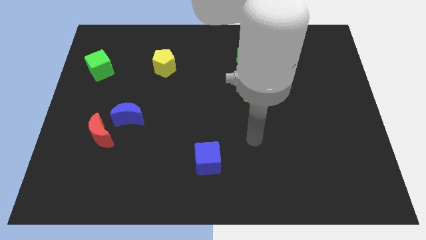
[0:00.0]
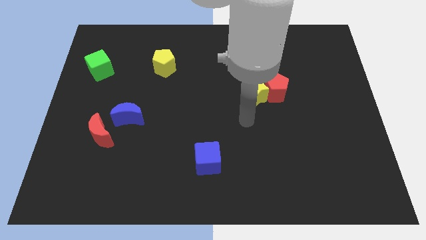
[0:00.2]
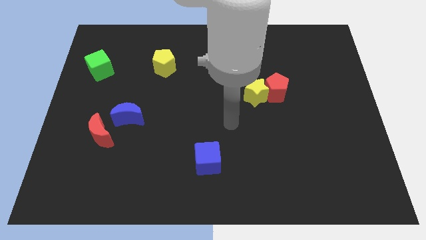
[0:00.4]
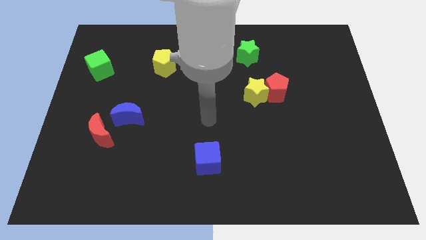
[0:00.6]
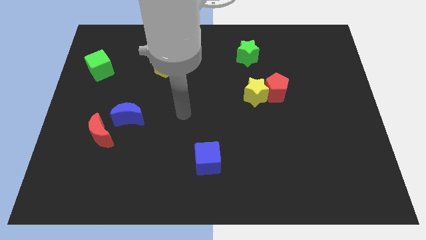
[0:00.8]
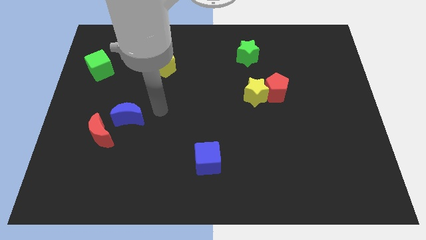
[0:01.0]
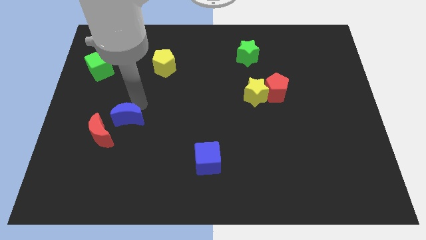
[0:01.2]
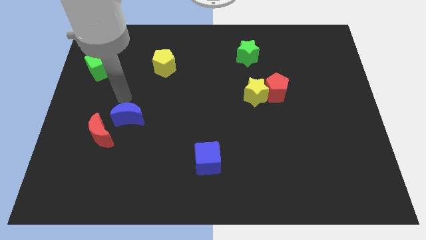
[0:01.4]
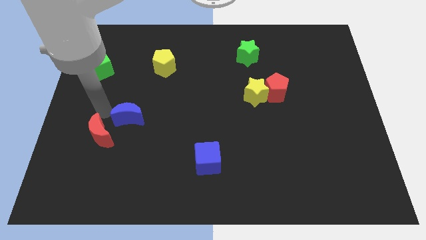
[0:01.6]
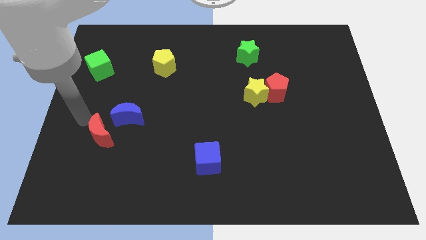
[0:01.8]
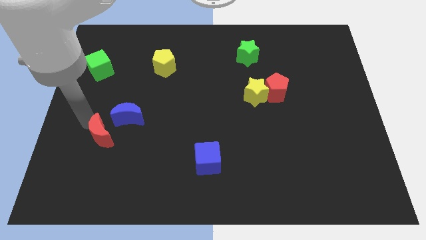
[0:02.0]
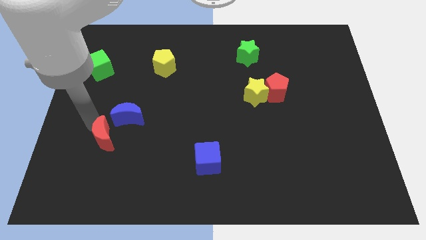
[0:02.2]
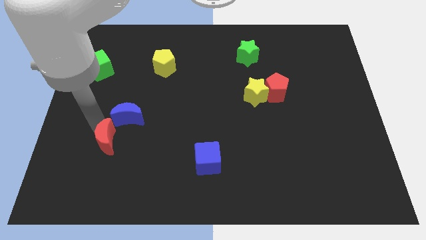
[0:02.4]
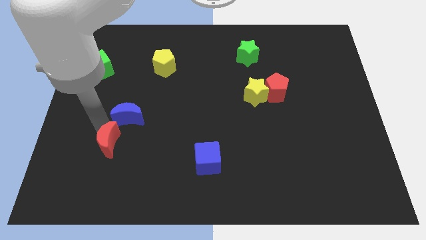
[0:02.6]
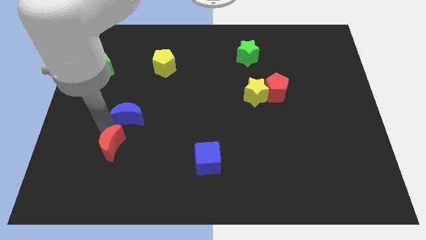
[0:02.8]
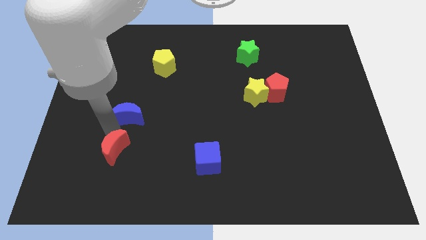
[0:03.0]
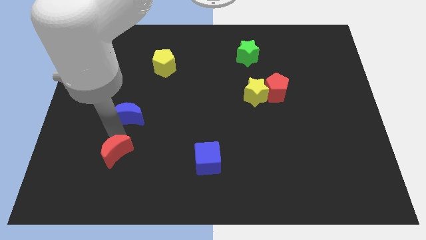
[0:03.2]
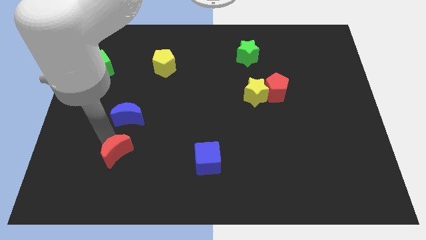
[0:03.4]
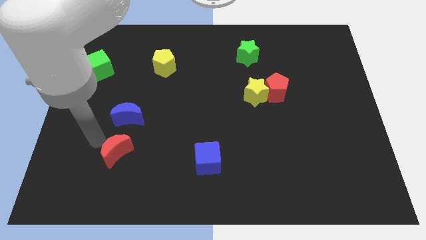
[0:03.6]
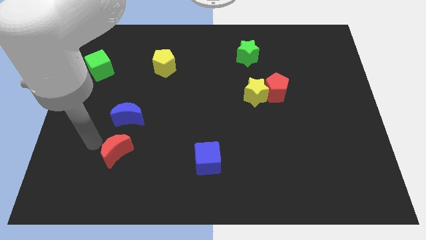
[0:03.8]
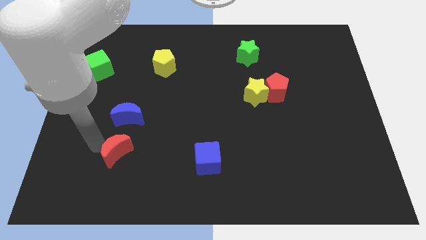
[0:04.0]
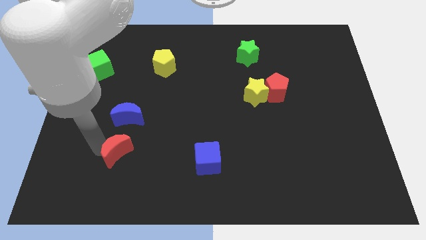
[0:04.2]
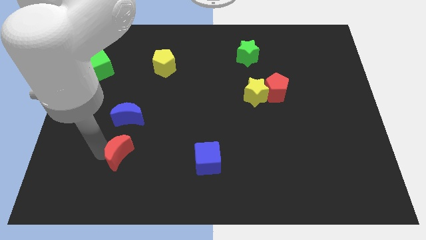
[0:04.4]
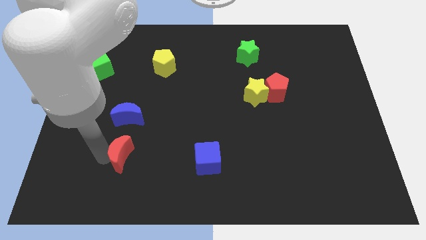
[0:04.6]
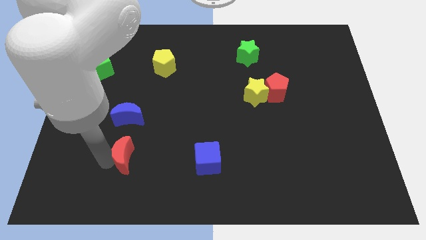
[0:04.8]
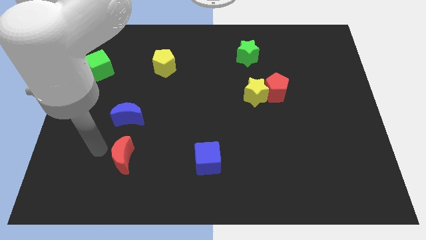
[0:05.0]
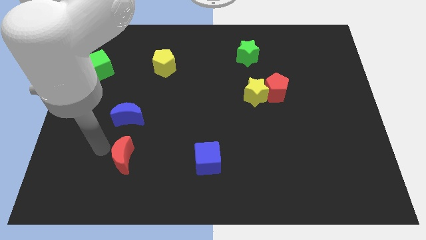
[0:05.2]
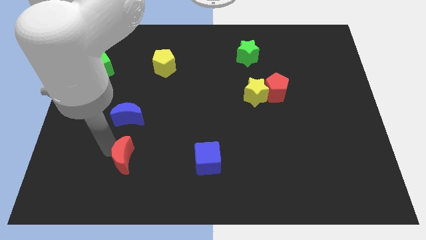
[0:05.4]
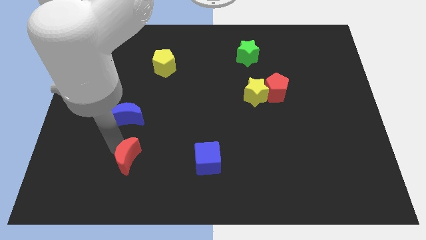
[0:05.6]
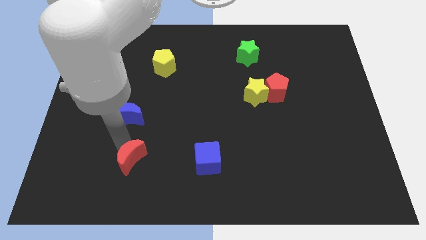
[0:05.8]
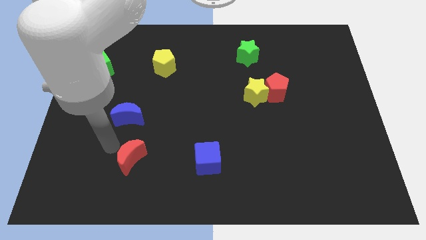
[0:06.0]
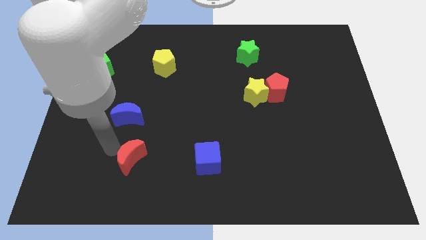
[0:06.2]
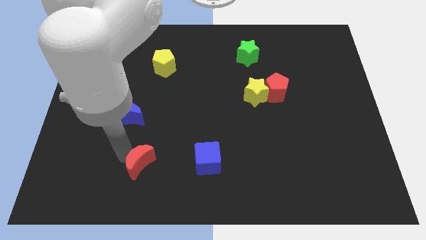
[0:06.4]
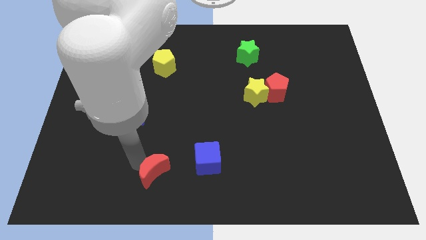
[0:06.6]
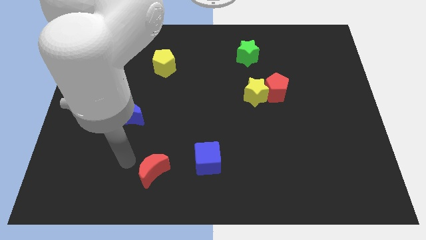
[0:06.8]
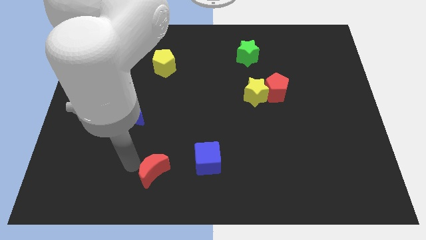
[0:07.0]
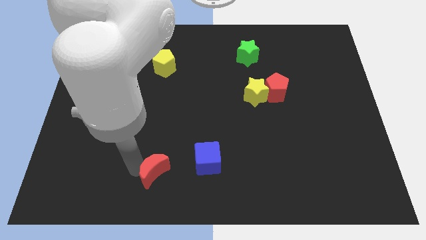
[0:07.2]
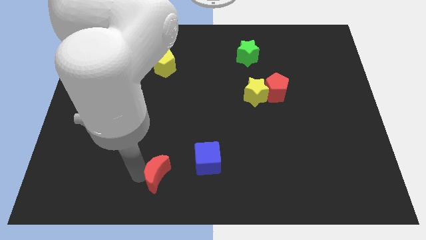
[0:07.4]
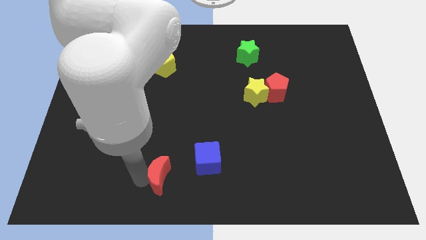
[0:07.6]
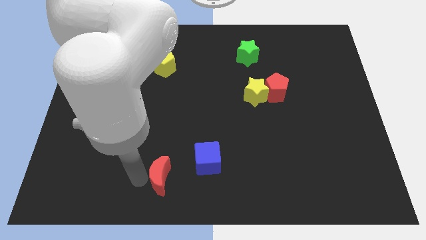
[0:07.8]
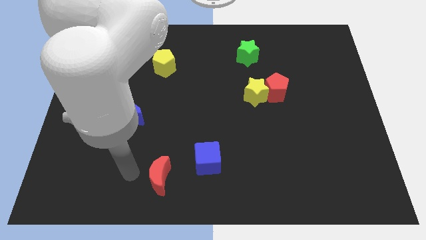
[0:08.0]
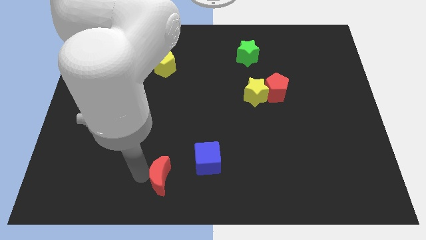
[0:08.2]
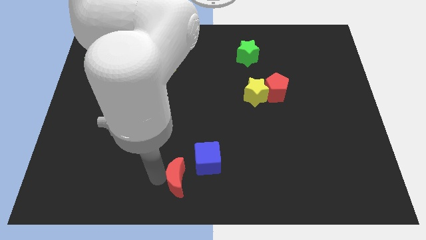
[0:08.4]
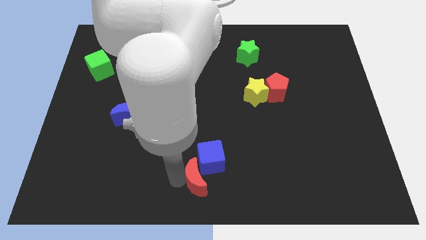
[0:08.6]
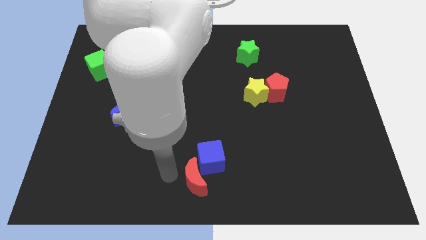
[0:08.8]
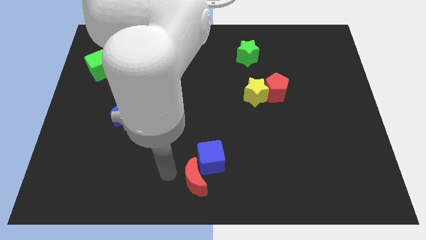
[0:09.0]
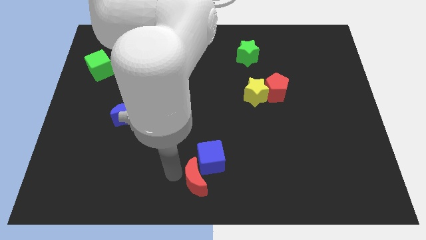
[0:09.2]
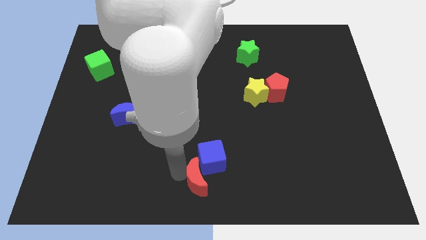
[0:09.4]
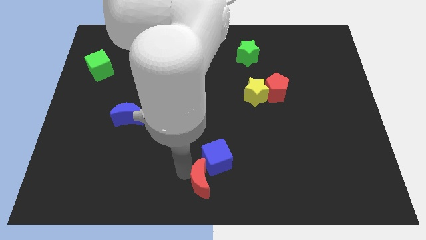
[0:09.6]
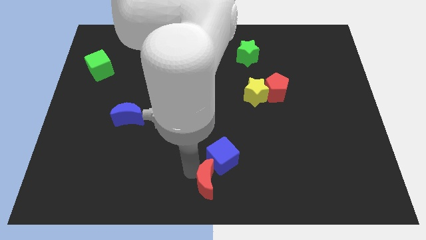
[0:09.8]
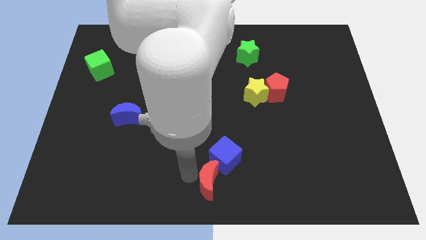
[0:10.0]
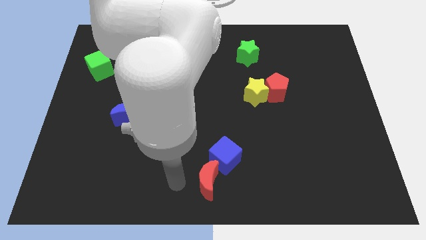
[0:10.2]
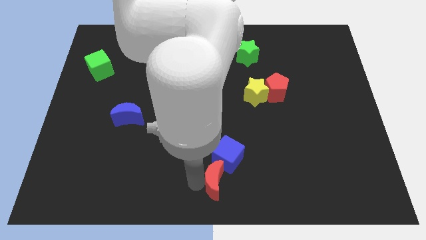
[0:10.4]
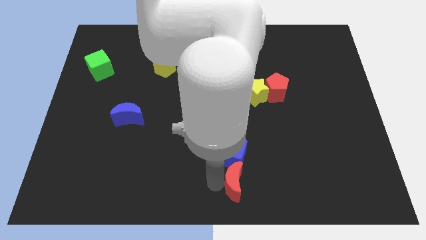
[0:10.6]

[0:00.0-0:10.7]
move the red moon diagonally down and to the right of the blue cube

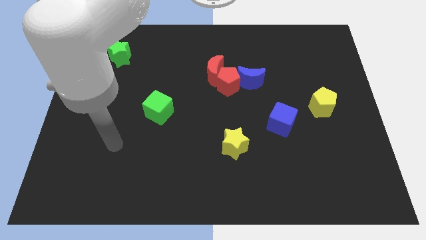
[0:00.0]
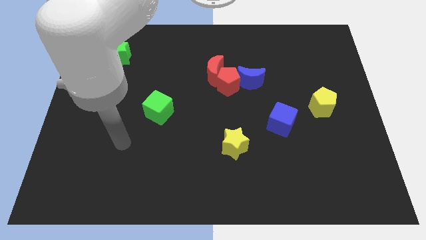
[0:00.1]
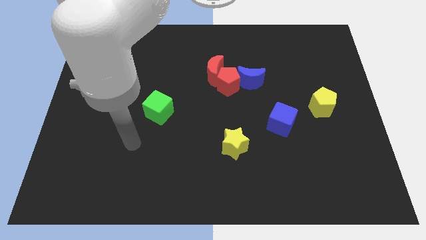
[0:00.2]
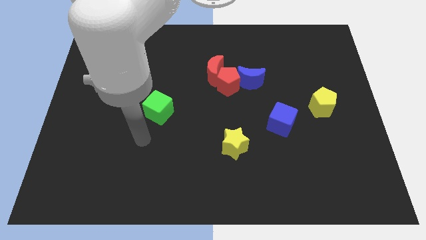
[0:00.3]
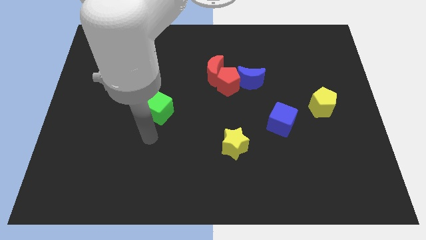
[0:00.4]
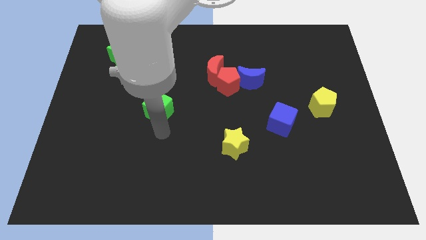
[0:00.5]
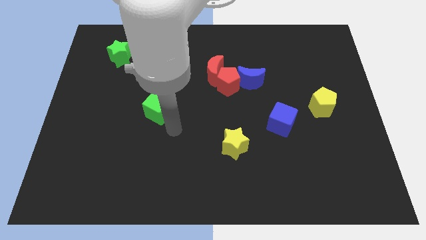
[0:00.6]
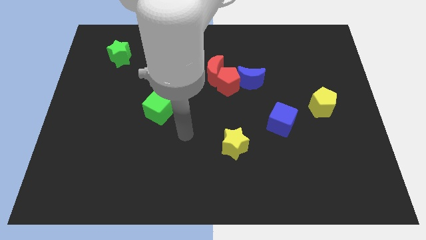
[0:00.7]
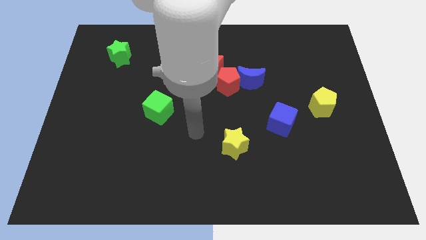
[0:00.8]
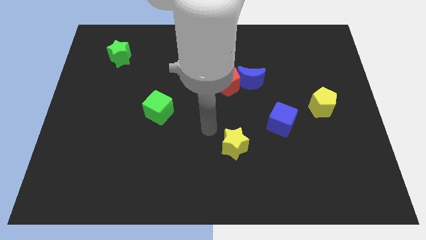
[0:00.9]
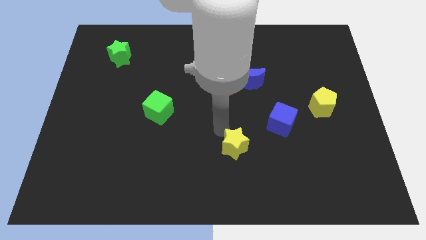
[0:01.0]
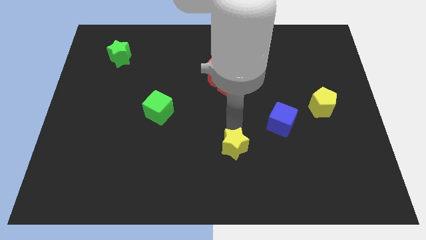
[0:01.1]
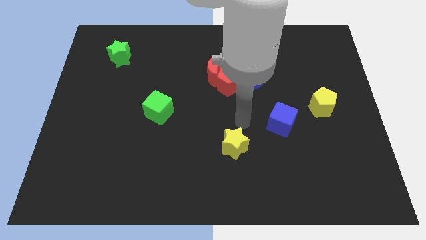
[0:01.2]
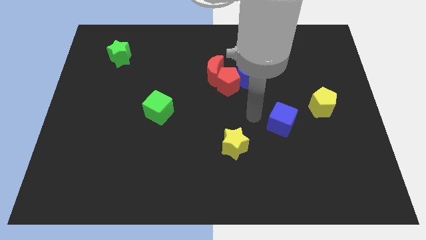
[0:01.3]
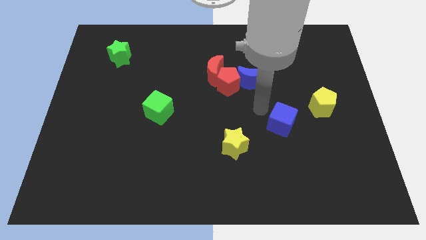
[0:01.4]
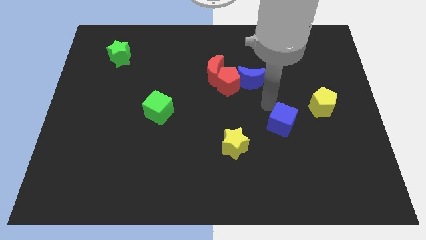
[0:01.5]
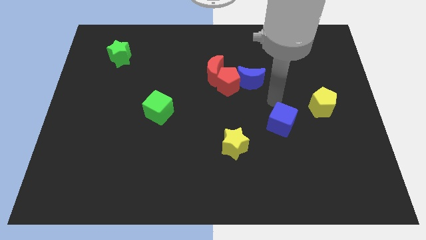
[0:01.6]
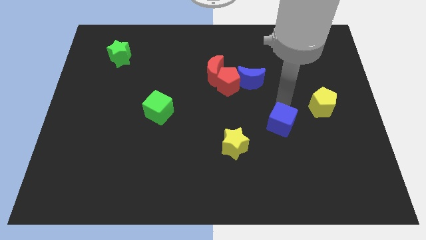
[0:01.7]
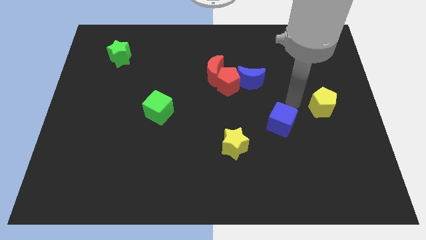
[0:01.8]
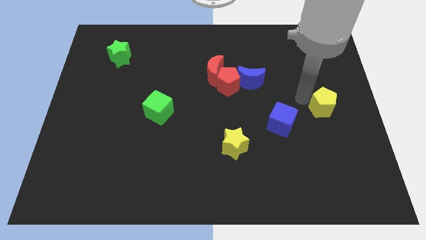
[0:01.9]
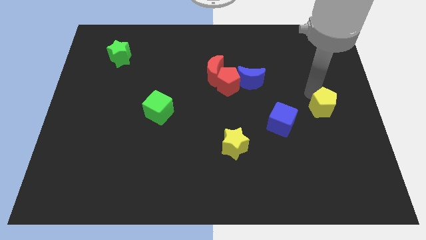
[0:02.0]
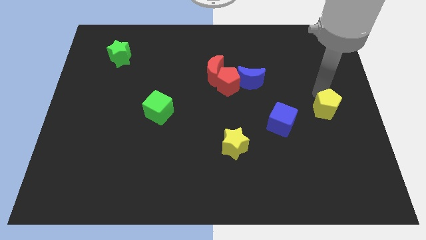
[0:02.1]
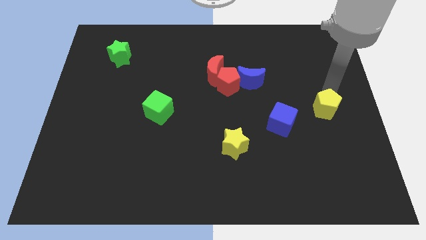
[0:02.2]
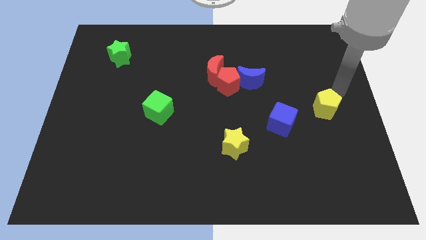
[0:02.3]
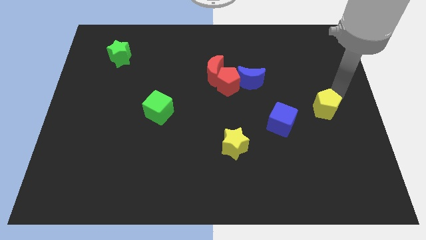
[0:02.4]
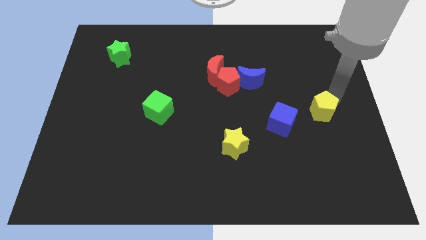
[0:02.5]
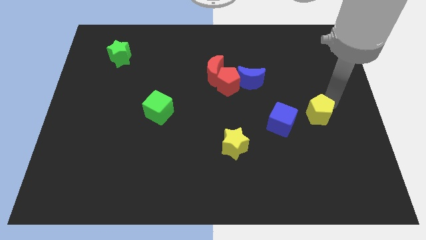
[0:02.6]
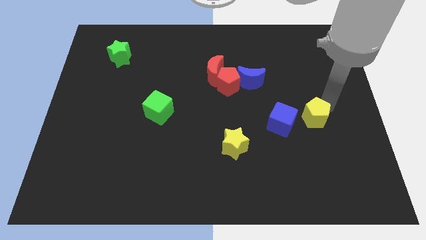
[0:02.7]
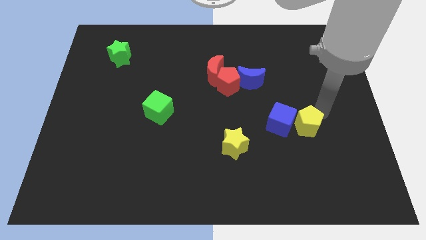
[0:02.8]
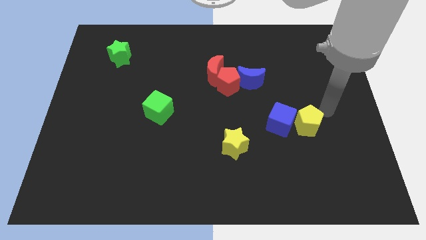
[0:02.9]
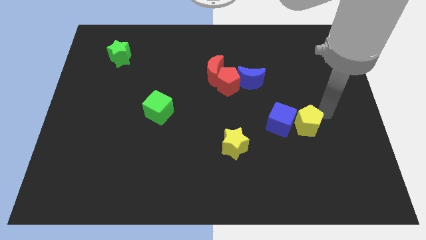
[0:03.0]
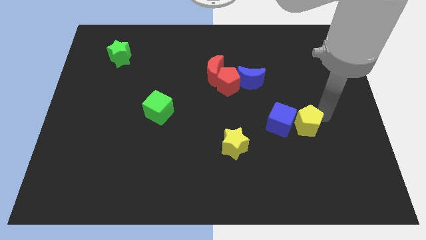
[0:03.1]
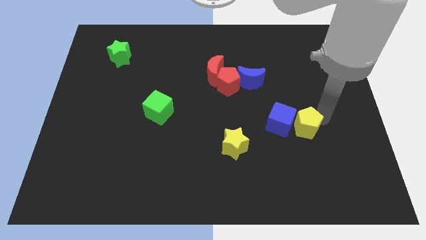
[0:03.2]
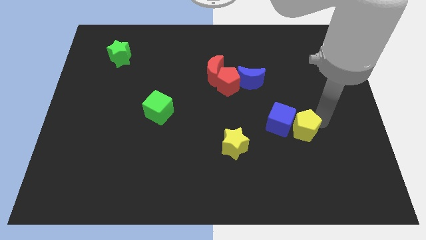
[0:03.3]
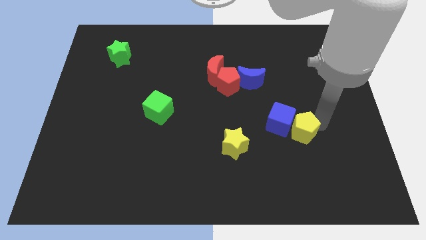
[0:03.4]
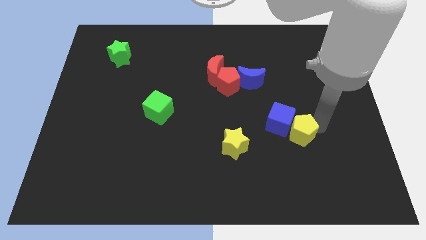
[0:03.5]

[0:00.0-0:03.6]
put the yellow pentagon right of the yellow star
